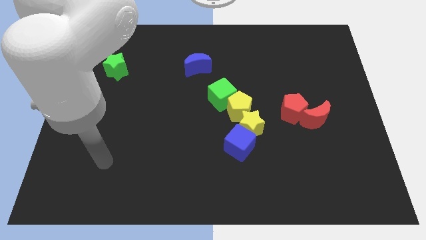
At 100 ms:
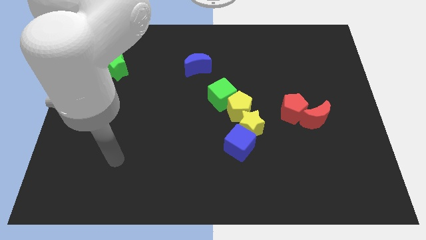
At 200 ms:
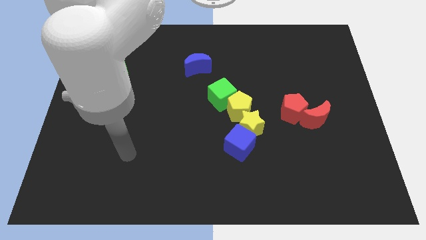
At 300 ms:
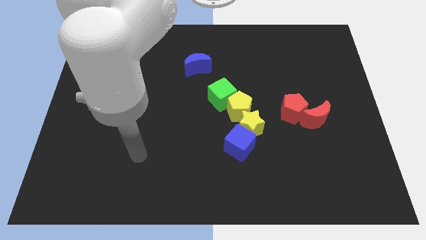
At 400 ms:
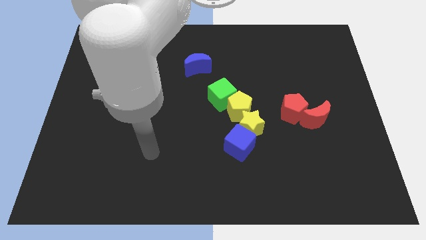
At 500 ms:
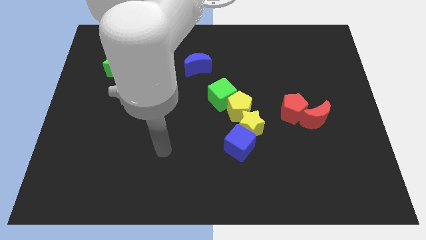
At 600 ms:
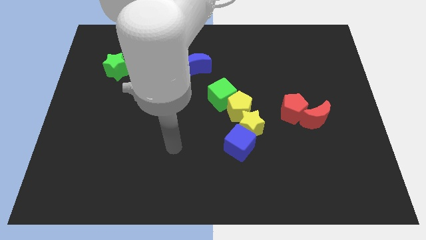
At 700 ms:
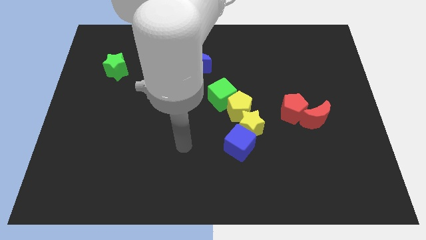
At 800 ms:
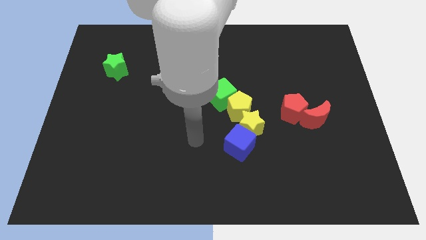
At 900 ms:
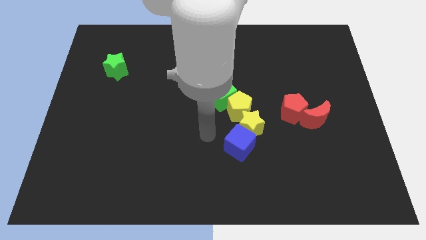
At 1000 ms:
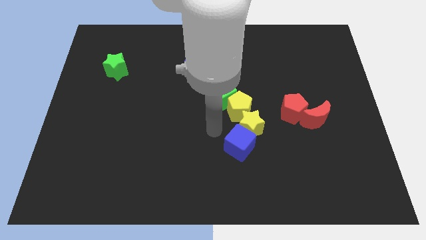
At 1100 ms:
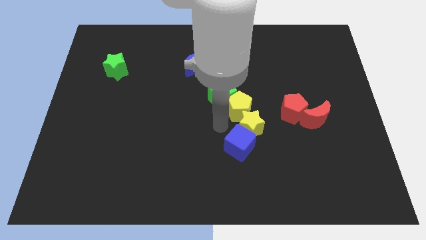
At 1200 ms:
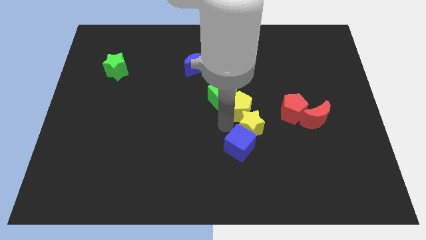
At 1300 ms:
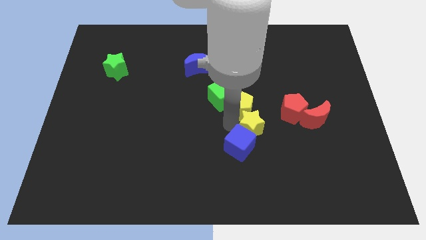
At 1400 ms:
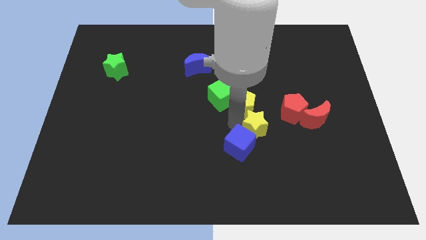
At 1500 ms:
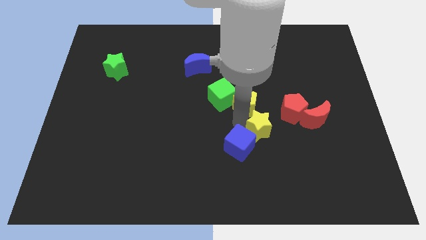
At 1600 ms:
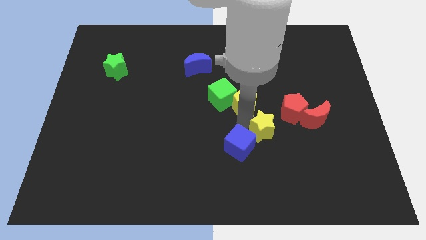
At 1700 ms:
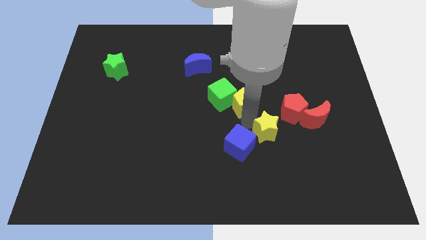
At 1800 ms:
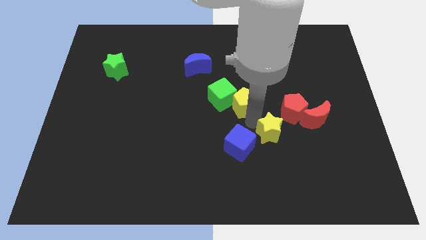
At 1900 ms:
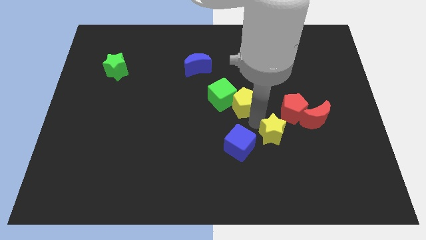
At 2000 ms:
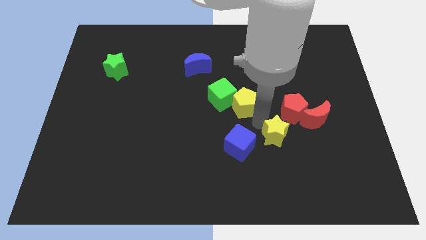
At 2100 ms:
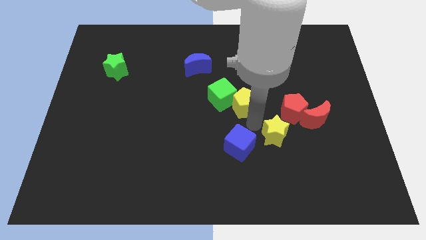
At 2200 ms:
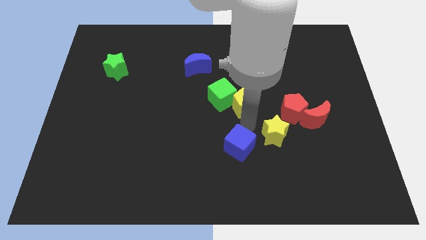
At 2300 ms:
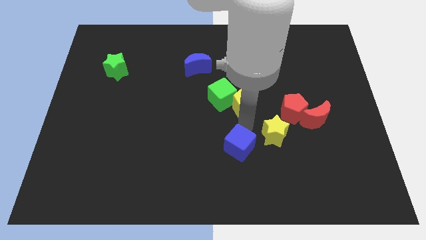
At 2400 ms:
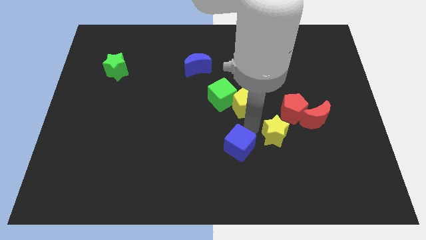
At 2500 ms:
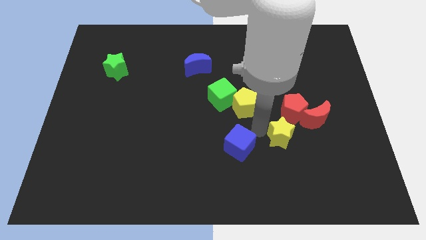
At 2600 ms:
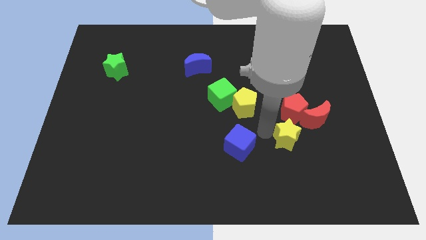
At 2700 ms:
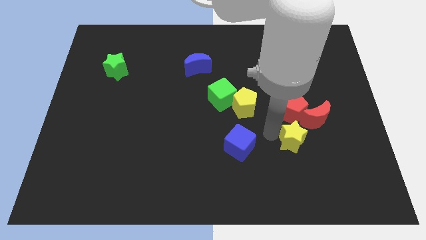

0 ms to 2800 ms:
move the yellow star away from the blue cube and yellow pentagon

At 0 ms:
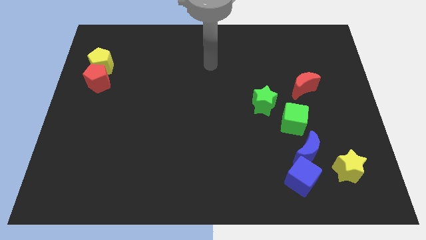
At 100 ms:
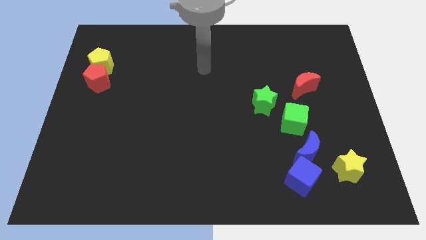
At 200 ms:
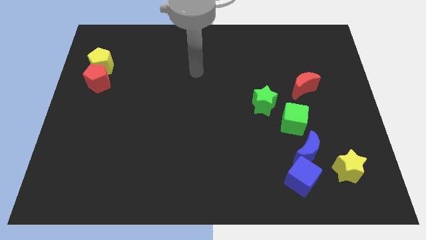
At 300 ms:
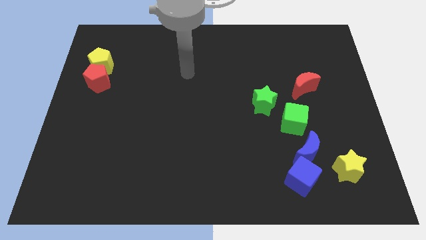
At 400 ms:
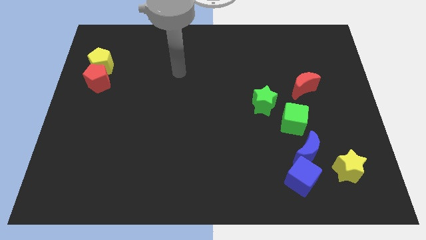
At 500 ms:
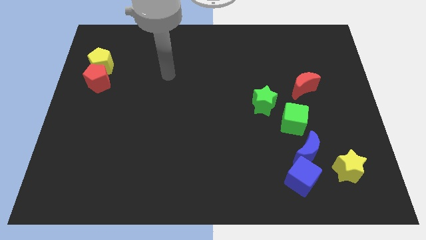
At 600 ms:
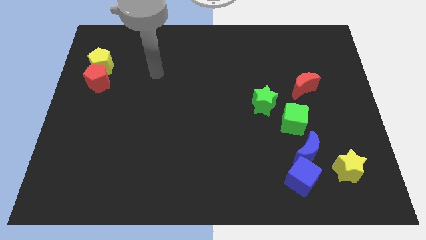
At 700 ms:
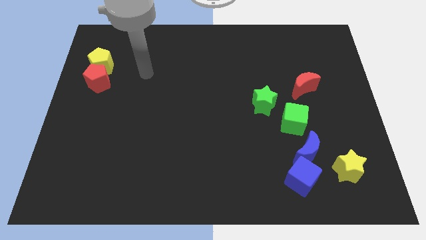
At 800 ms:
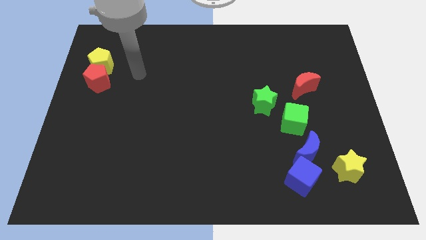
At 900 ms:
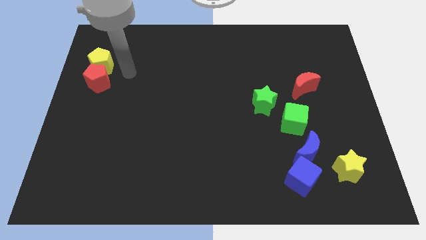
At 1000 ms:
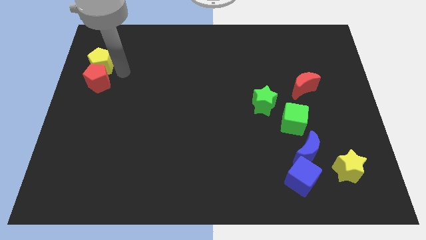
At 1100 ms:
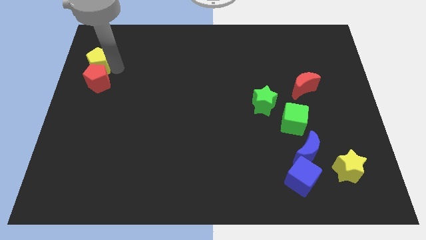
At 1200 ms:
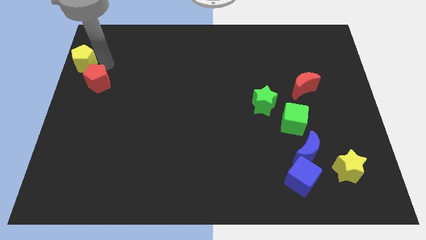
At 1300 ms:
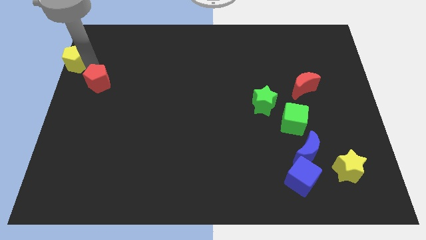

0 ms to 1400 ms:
separate the red pentagon from the yellow pentagon

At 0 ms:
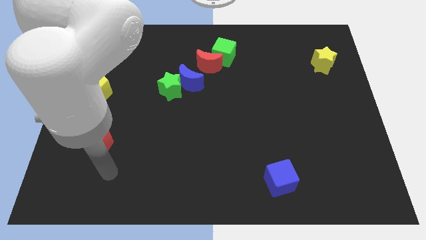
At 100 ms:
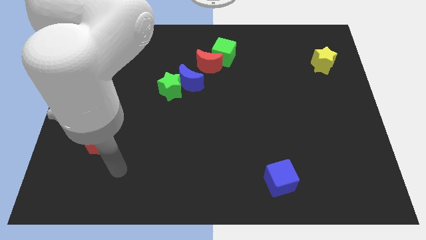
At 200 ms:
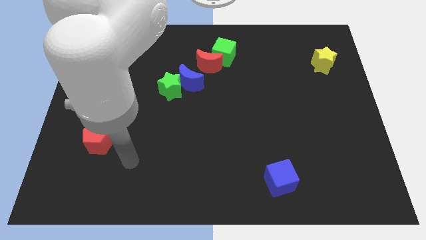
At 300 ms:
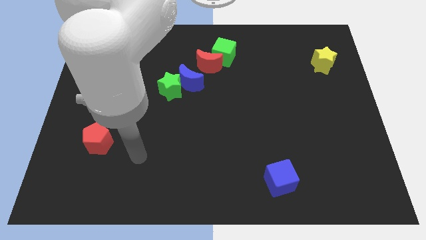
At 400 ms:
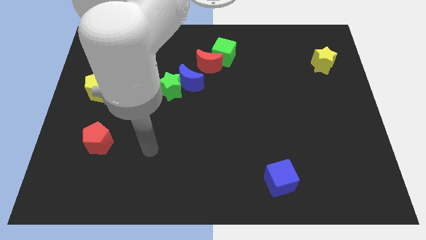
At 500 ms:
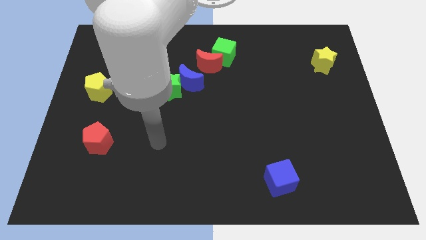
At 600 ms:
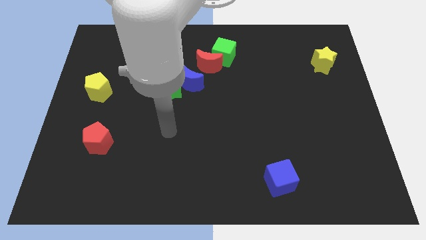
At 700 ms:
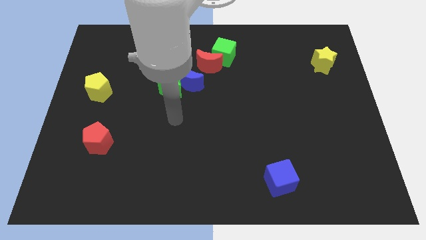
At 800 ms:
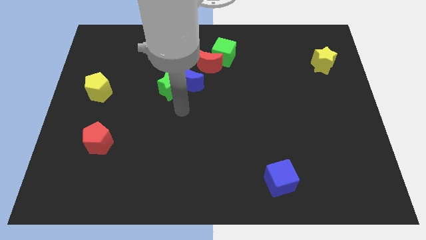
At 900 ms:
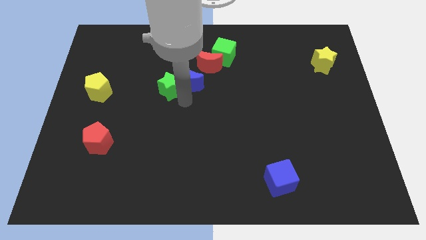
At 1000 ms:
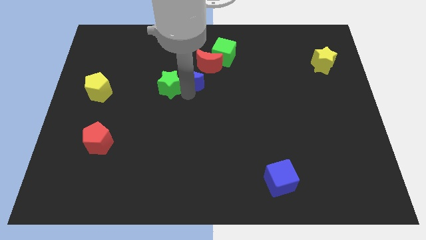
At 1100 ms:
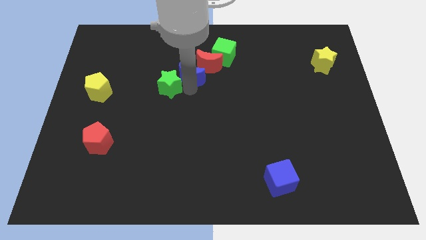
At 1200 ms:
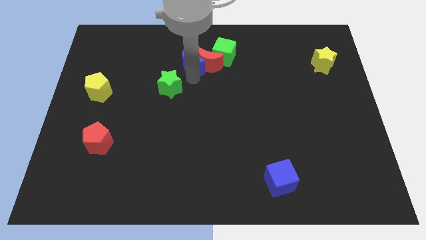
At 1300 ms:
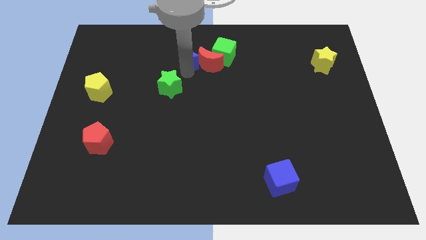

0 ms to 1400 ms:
move the green star away from the blue moon

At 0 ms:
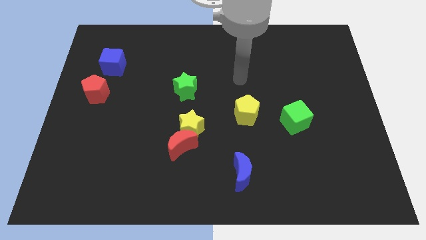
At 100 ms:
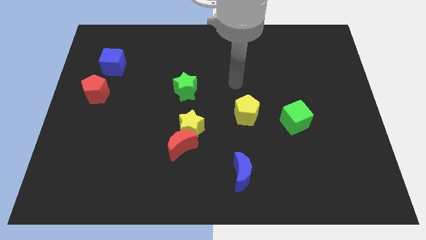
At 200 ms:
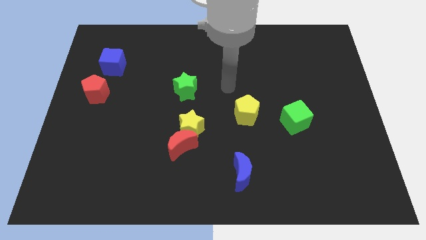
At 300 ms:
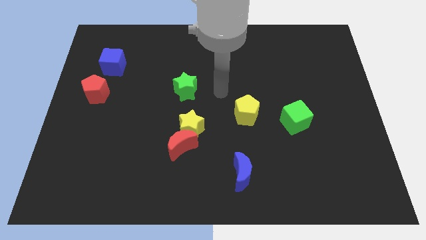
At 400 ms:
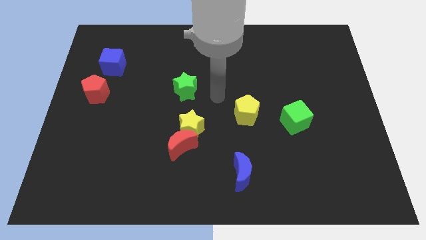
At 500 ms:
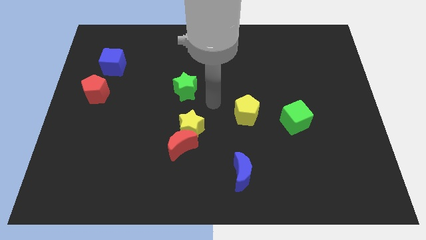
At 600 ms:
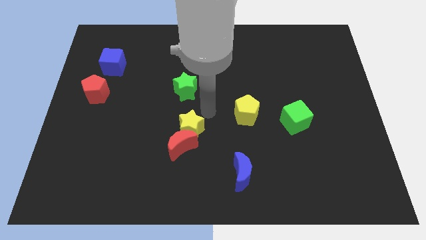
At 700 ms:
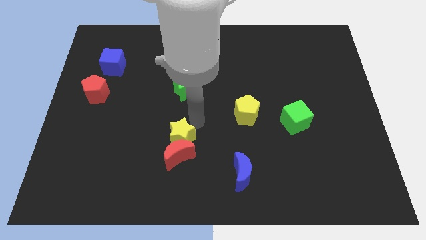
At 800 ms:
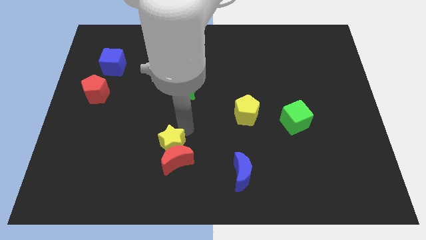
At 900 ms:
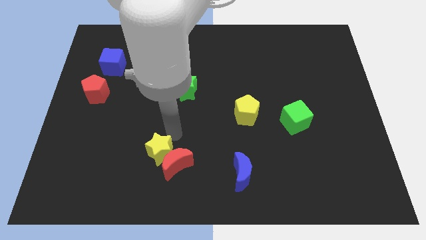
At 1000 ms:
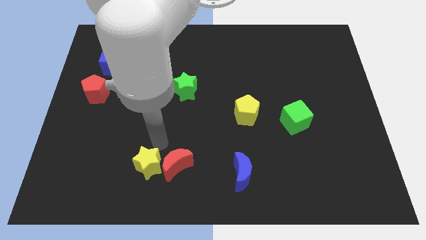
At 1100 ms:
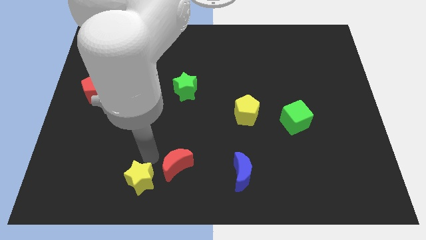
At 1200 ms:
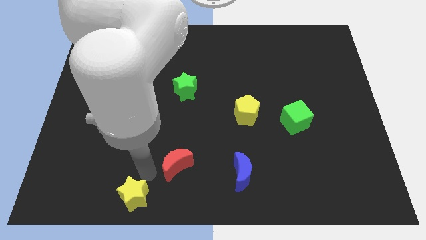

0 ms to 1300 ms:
move the red moon away from the yellow star

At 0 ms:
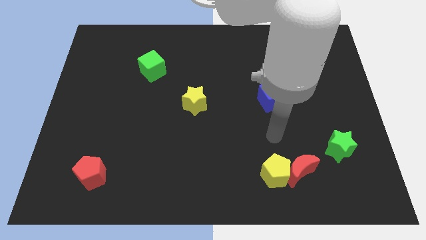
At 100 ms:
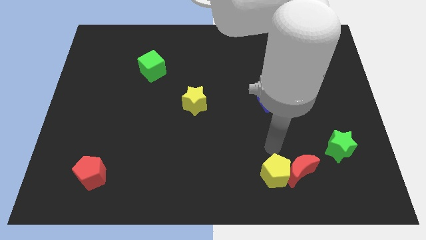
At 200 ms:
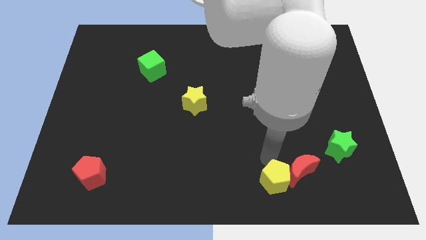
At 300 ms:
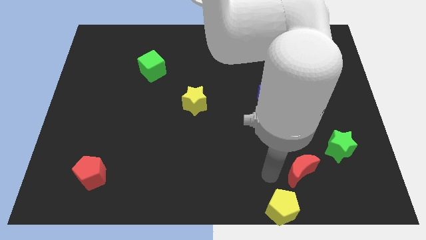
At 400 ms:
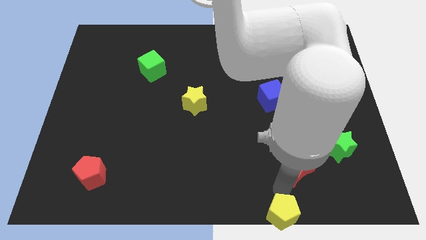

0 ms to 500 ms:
separate the red moon from the yellow pentagon

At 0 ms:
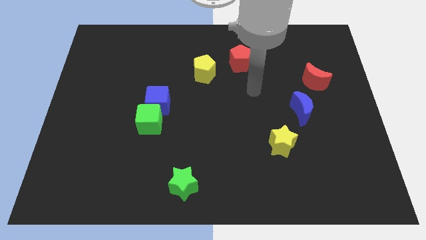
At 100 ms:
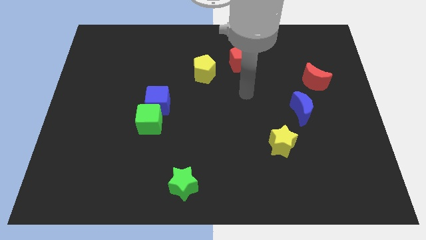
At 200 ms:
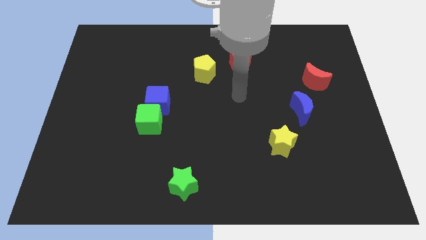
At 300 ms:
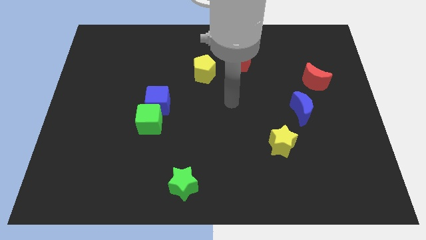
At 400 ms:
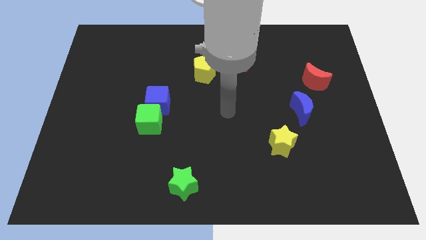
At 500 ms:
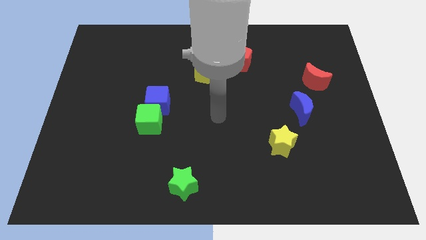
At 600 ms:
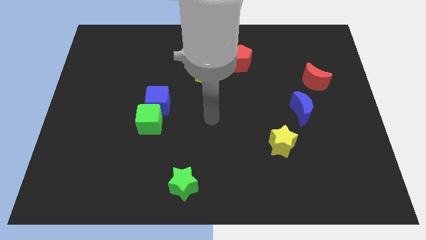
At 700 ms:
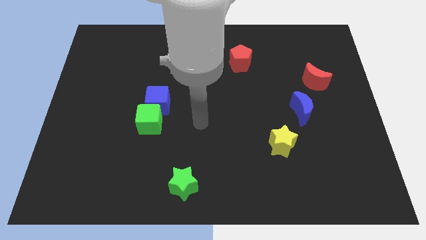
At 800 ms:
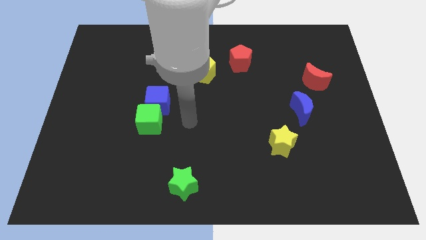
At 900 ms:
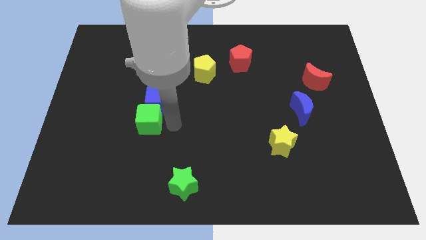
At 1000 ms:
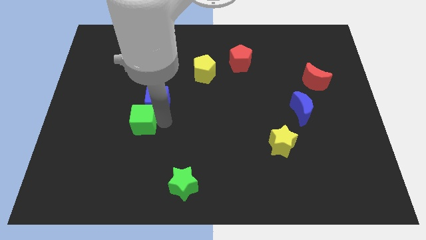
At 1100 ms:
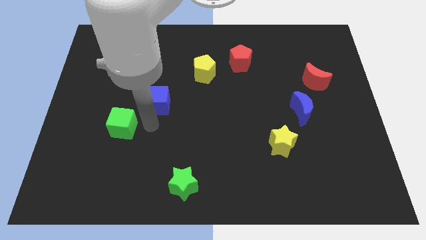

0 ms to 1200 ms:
separate the blue cube from the green cube

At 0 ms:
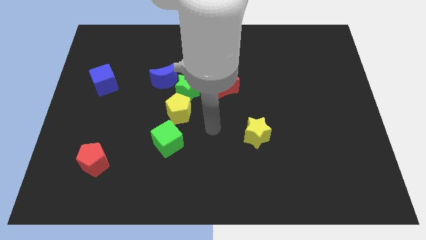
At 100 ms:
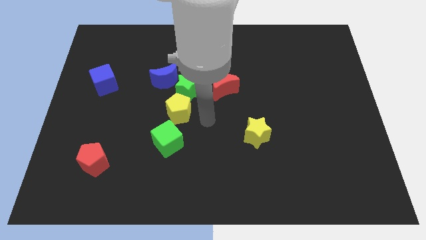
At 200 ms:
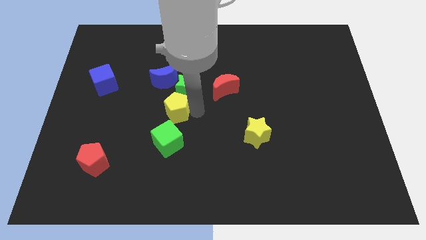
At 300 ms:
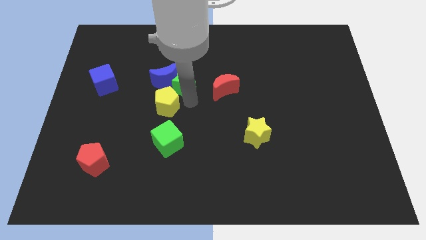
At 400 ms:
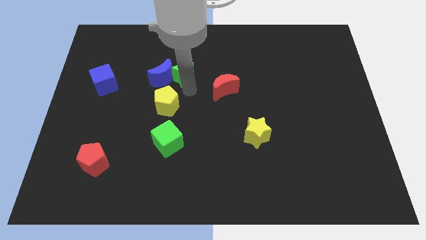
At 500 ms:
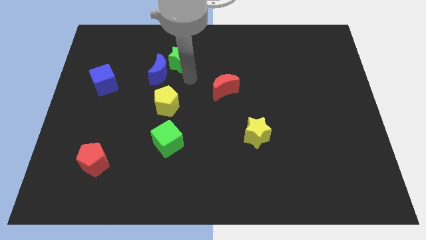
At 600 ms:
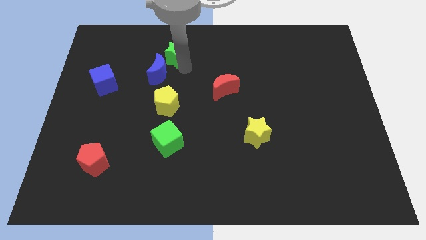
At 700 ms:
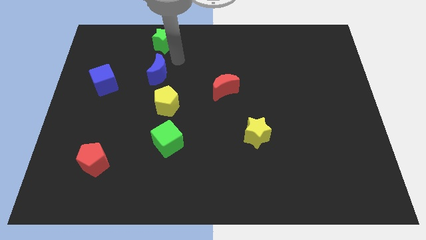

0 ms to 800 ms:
pull the blue moon apart from the green star

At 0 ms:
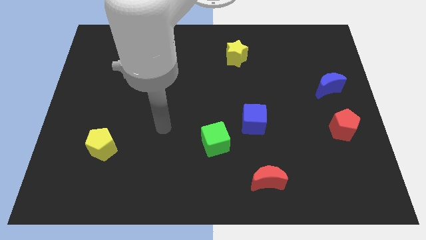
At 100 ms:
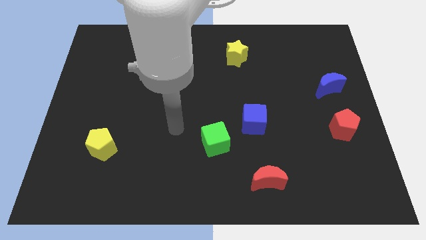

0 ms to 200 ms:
move the blue cube away from the green cube
